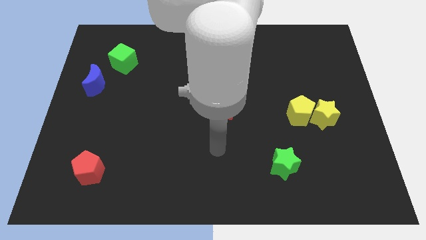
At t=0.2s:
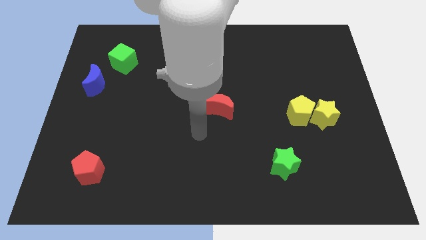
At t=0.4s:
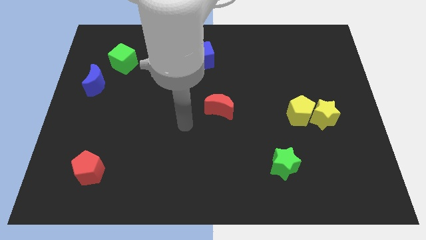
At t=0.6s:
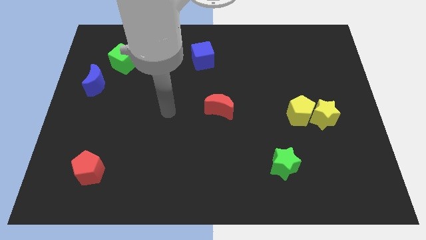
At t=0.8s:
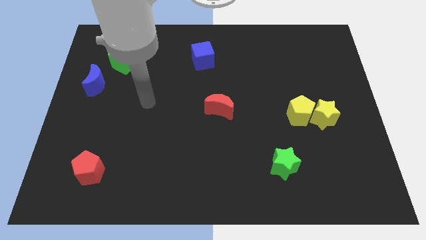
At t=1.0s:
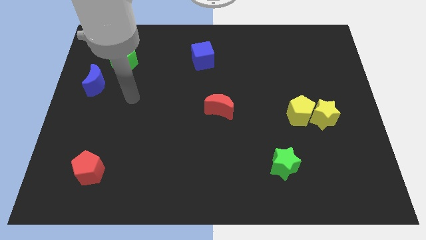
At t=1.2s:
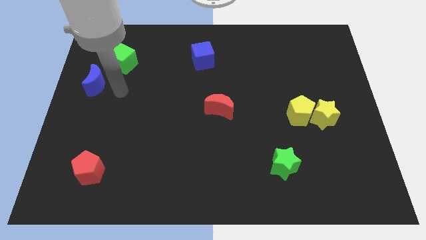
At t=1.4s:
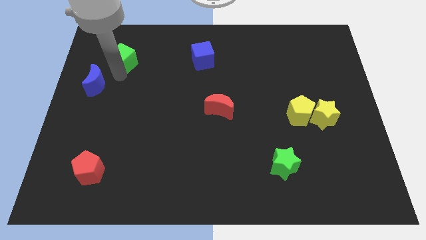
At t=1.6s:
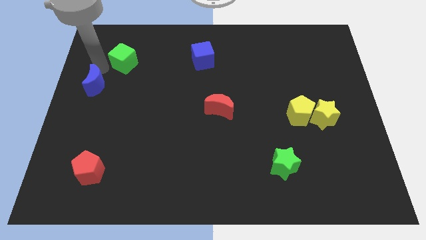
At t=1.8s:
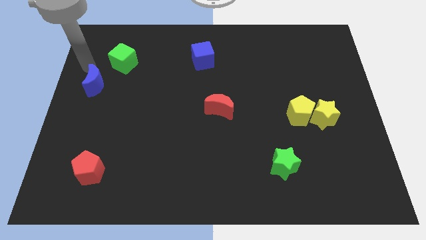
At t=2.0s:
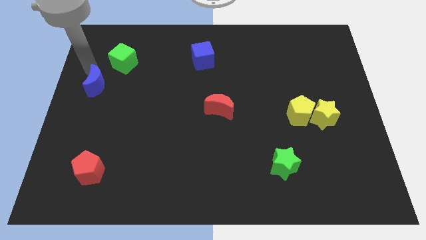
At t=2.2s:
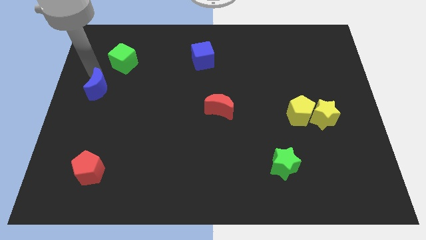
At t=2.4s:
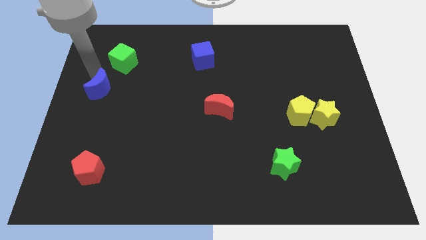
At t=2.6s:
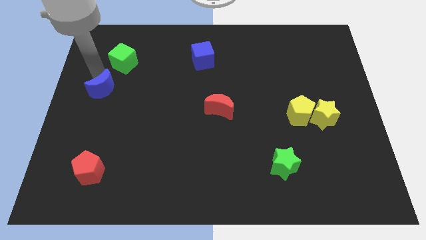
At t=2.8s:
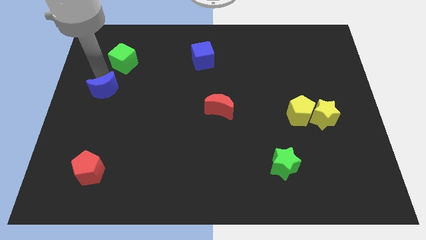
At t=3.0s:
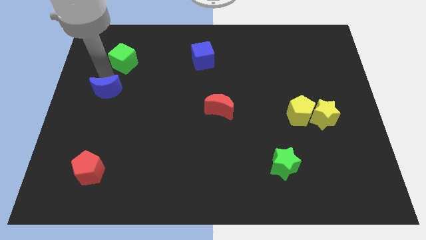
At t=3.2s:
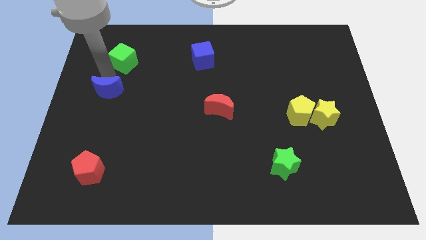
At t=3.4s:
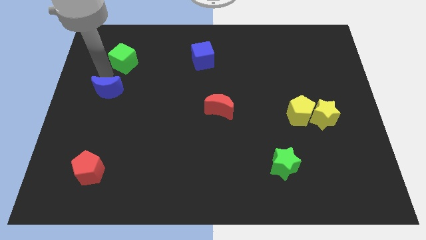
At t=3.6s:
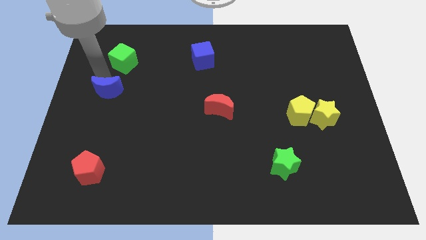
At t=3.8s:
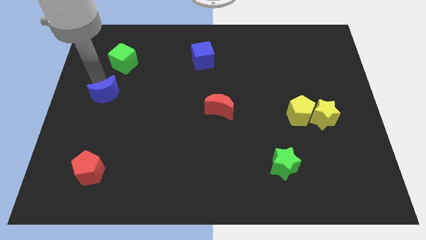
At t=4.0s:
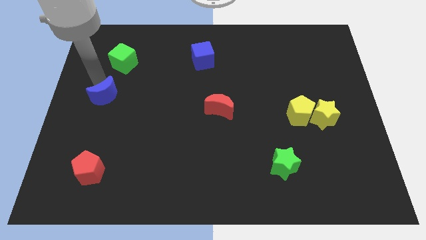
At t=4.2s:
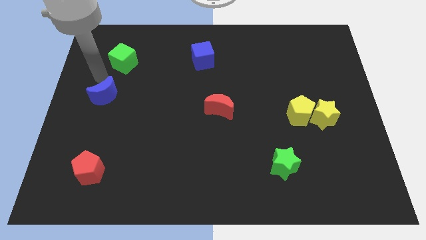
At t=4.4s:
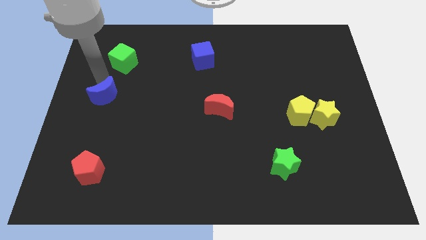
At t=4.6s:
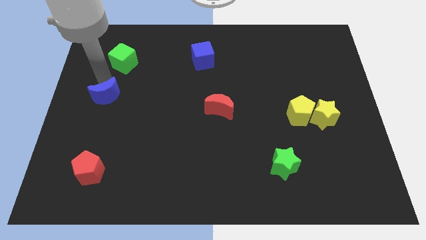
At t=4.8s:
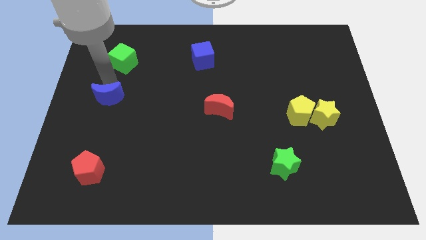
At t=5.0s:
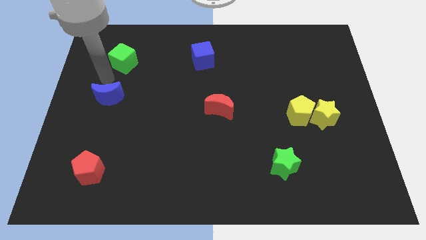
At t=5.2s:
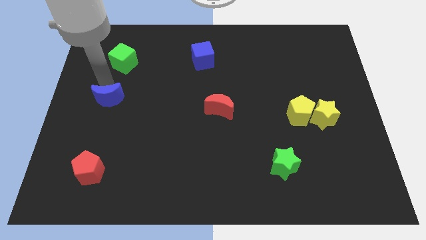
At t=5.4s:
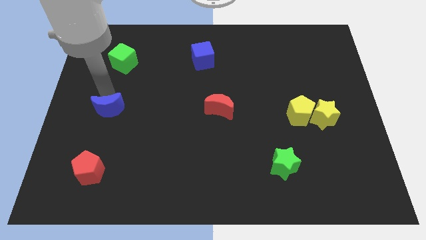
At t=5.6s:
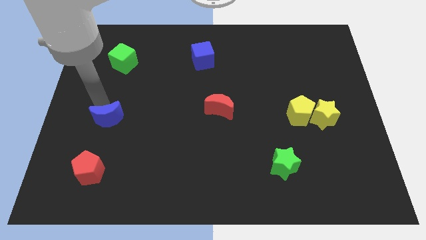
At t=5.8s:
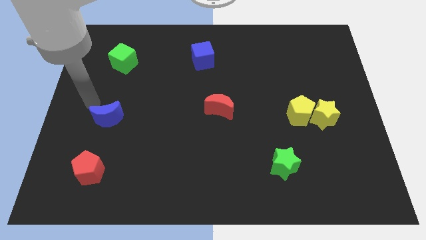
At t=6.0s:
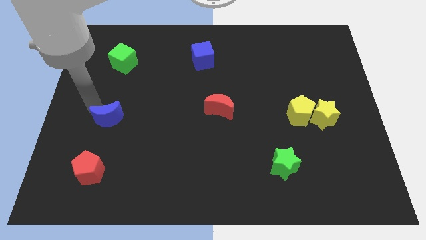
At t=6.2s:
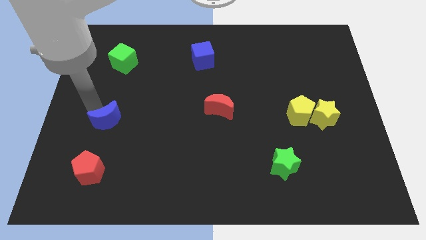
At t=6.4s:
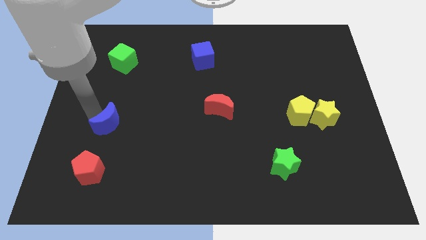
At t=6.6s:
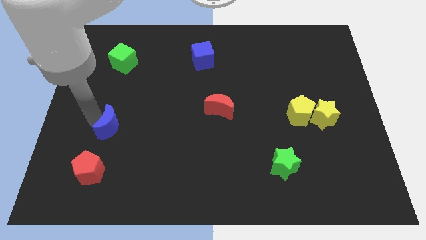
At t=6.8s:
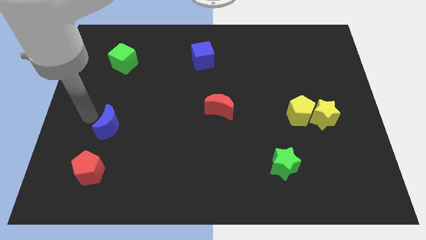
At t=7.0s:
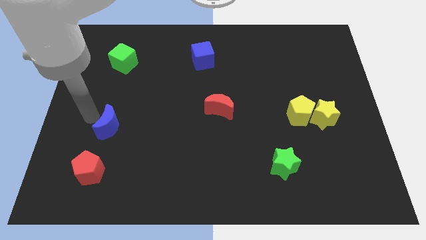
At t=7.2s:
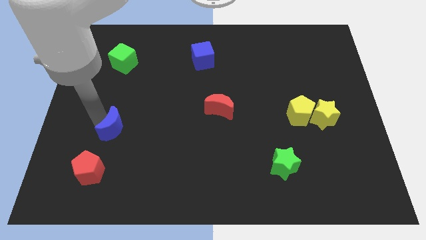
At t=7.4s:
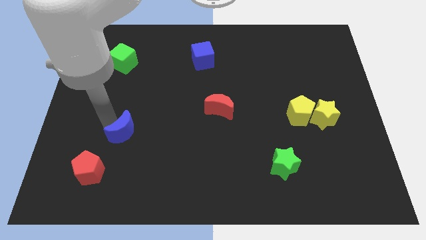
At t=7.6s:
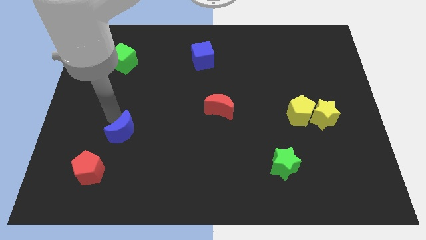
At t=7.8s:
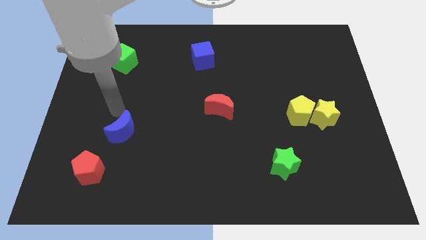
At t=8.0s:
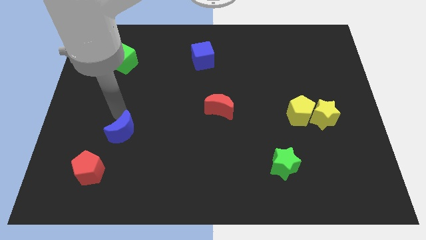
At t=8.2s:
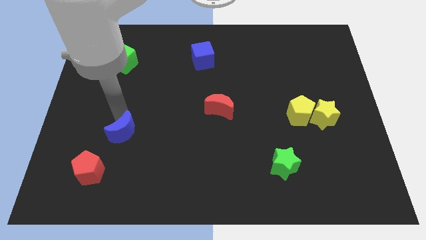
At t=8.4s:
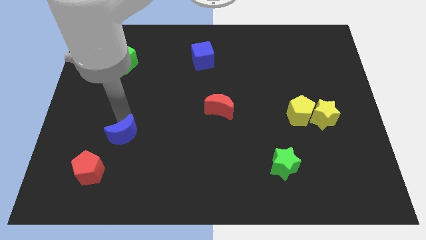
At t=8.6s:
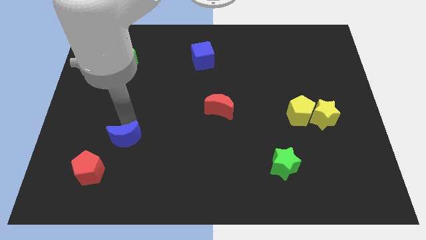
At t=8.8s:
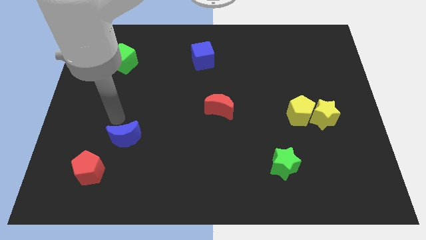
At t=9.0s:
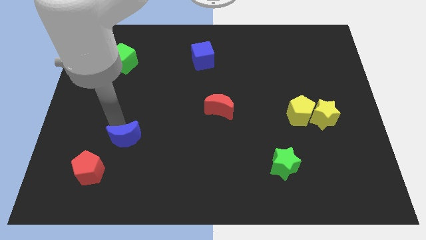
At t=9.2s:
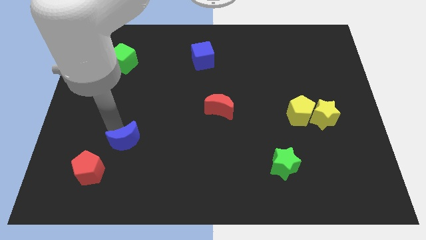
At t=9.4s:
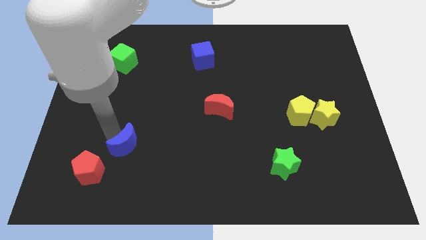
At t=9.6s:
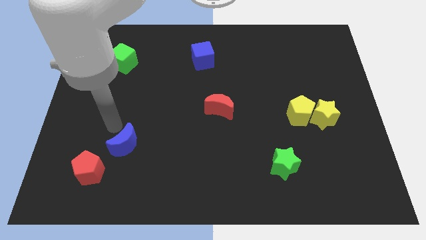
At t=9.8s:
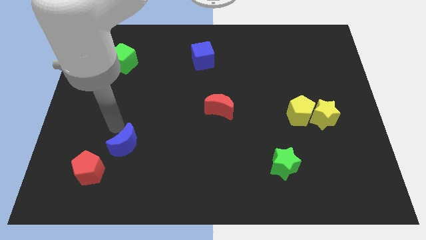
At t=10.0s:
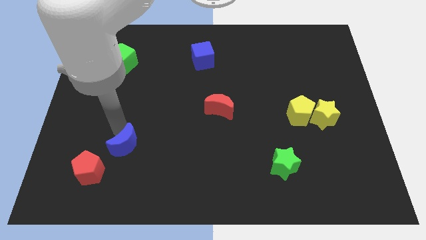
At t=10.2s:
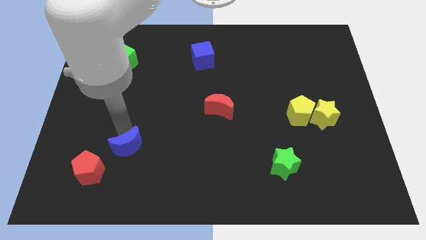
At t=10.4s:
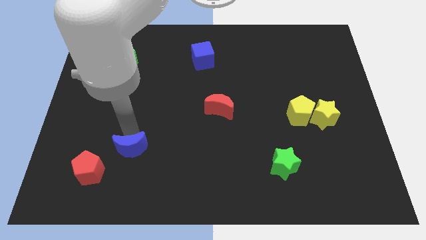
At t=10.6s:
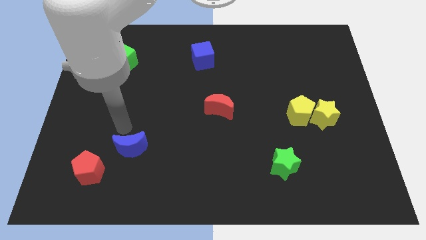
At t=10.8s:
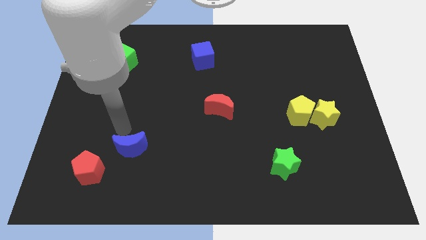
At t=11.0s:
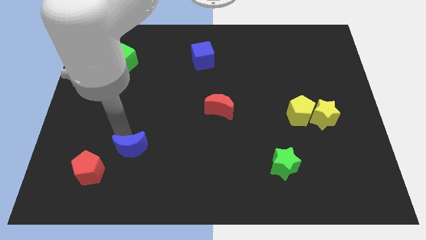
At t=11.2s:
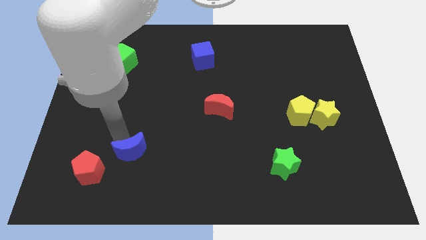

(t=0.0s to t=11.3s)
put the blue moon to the right side of the red pentagon
